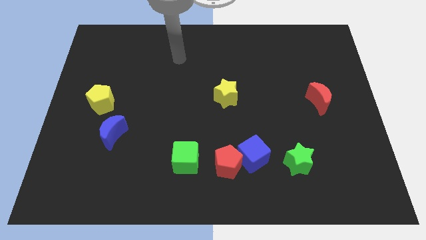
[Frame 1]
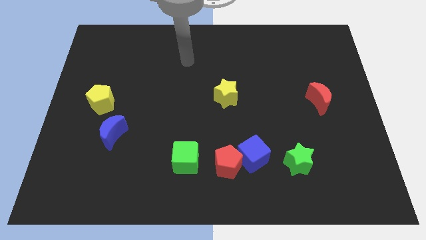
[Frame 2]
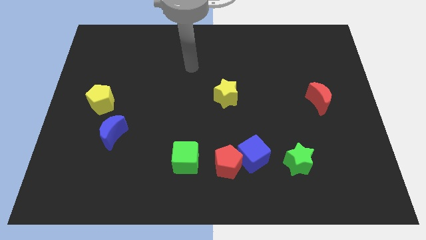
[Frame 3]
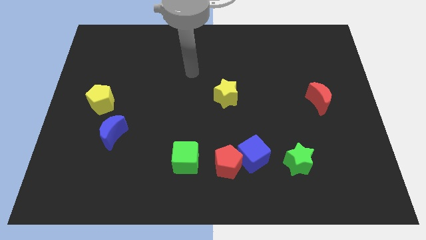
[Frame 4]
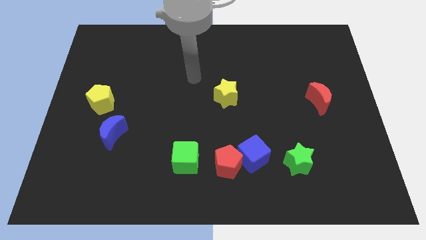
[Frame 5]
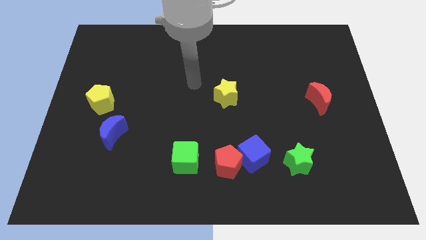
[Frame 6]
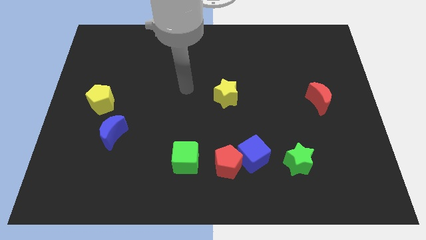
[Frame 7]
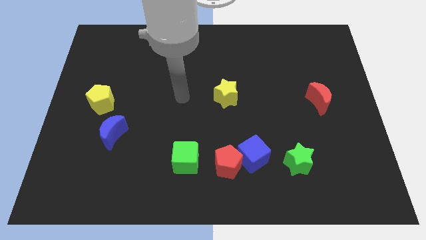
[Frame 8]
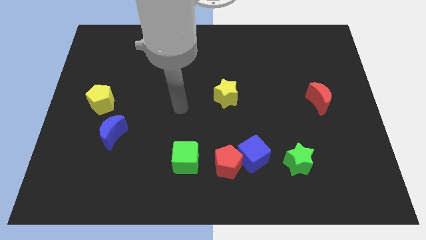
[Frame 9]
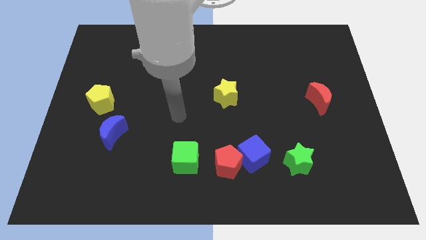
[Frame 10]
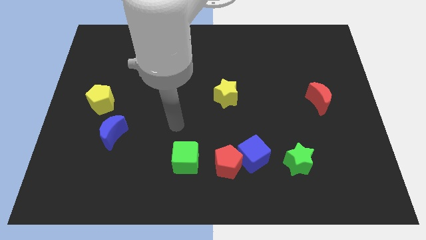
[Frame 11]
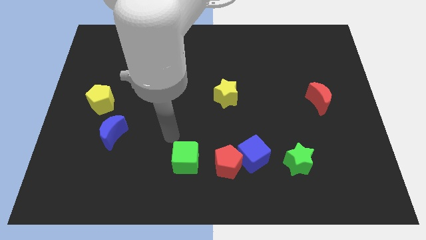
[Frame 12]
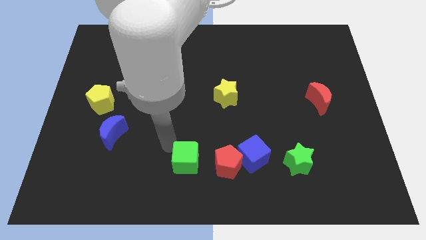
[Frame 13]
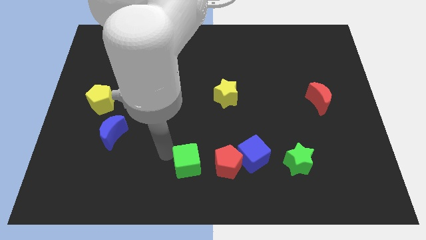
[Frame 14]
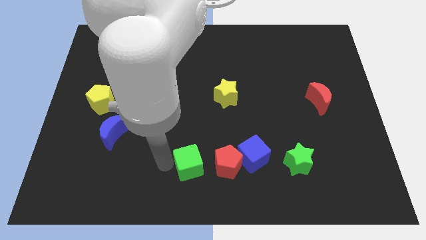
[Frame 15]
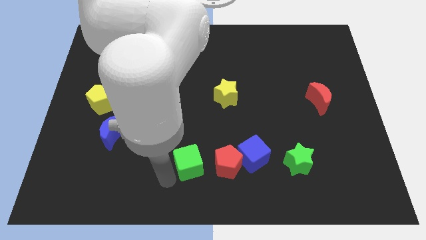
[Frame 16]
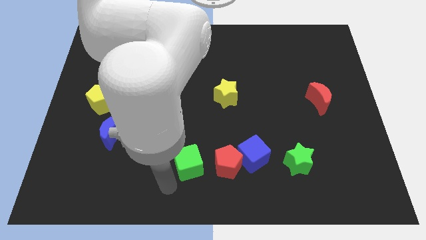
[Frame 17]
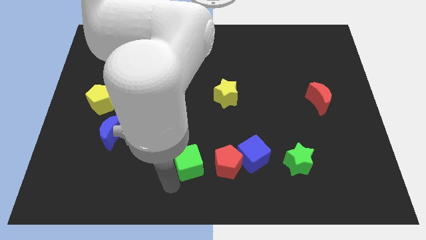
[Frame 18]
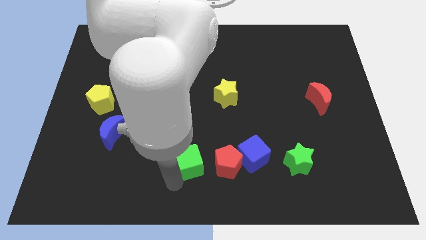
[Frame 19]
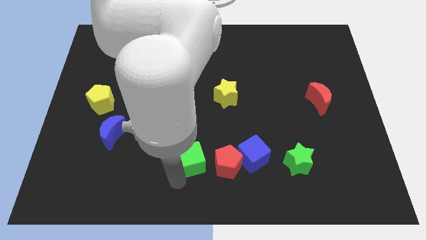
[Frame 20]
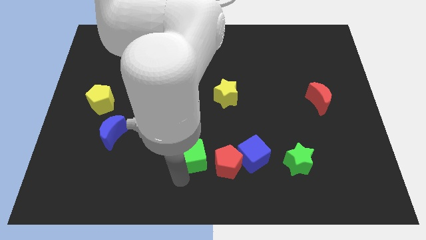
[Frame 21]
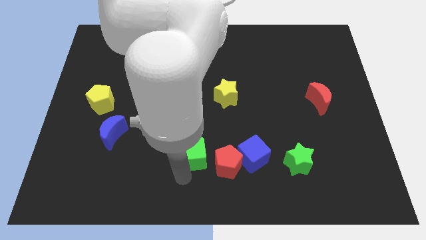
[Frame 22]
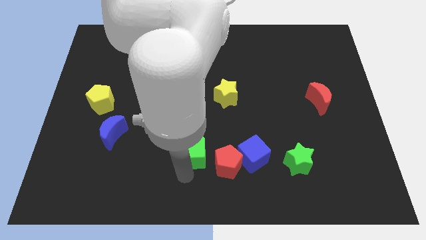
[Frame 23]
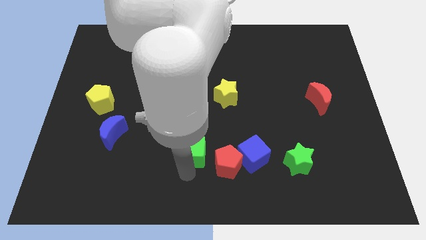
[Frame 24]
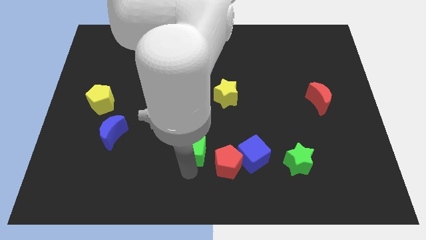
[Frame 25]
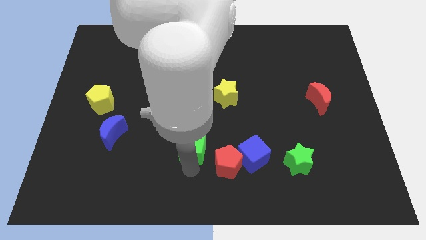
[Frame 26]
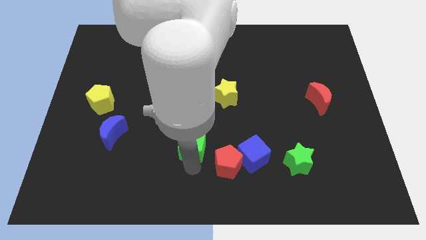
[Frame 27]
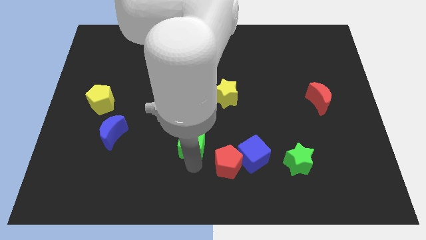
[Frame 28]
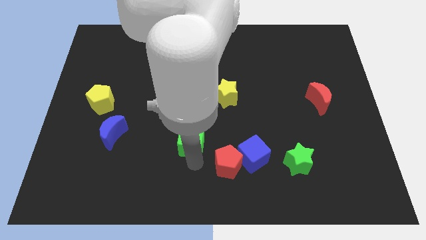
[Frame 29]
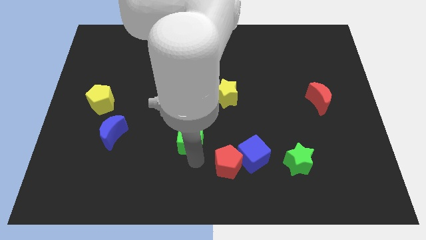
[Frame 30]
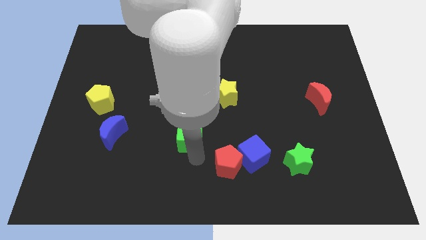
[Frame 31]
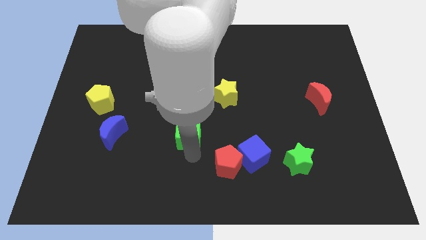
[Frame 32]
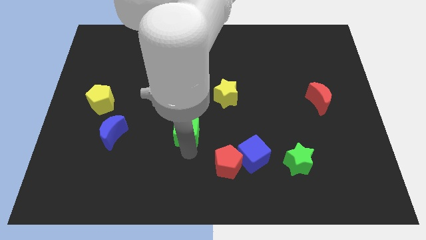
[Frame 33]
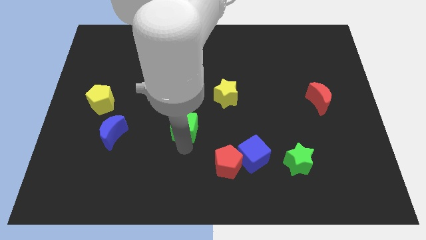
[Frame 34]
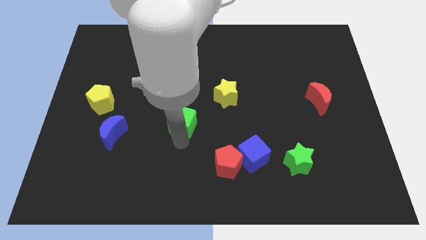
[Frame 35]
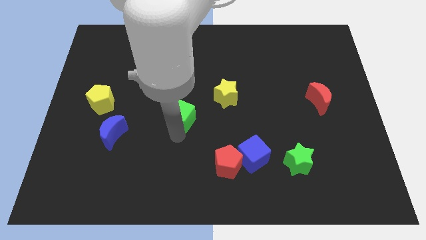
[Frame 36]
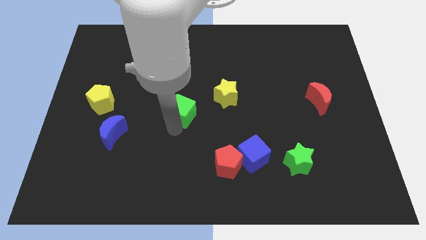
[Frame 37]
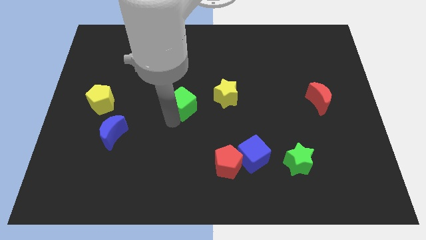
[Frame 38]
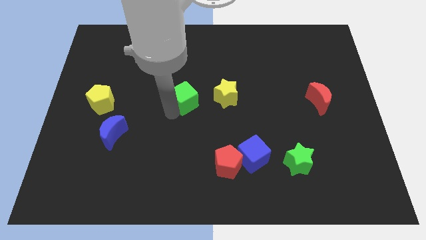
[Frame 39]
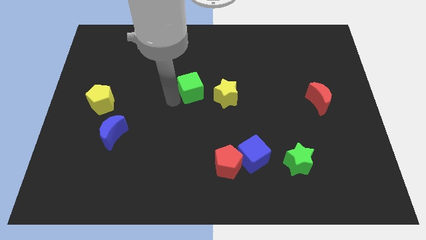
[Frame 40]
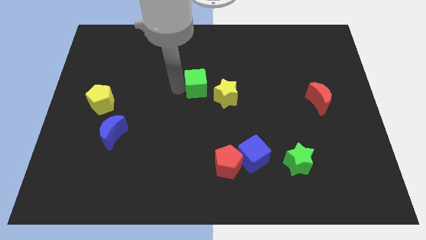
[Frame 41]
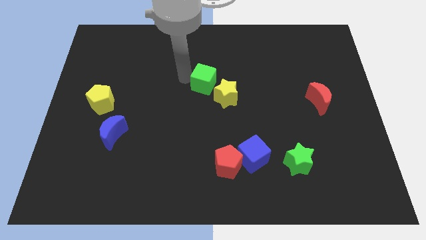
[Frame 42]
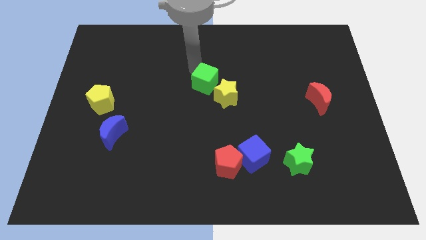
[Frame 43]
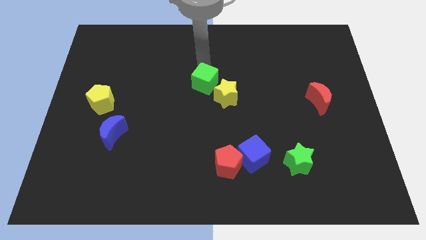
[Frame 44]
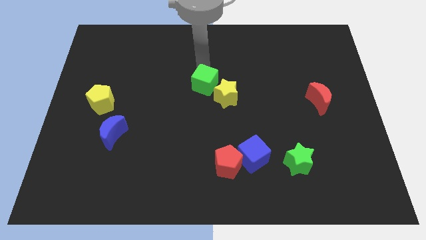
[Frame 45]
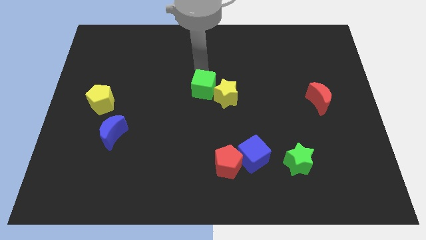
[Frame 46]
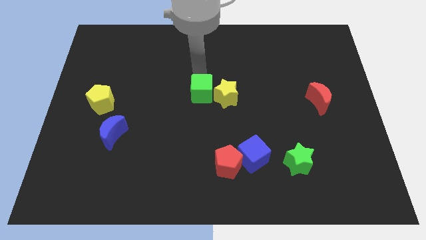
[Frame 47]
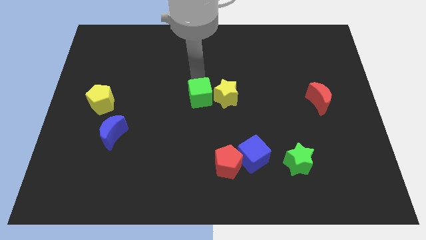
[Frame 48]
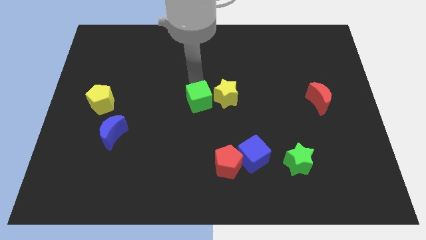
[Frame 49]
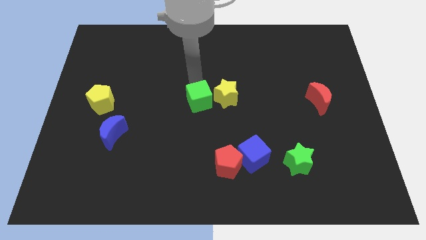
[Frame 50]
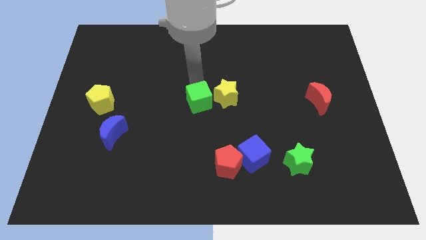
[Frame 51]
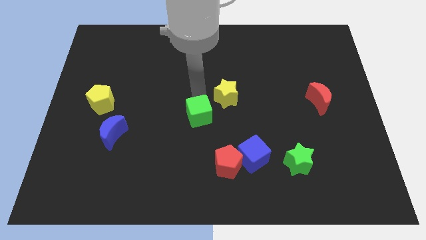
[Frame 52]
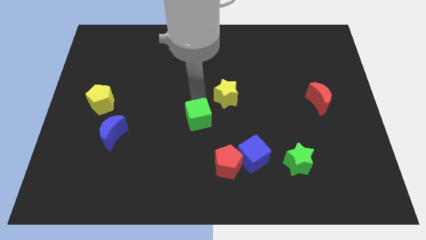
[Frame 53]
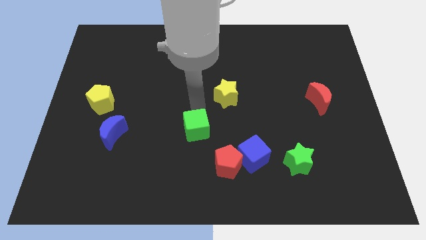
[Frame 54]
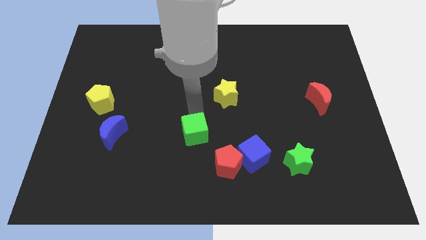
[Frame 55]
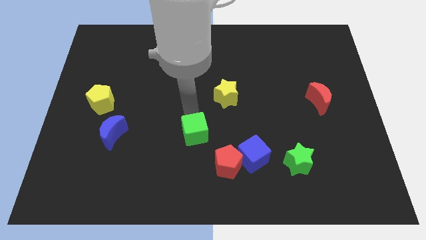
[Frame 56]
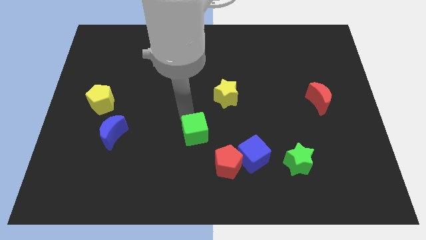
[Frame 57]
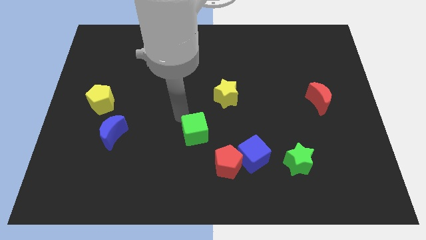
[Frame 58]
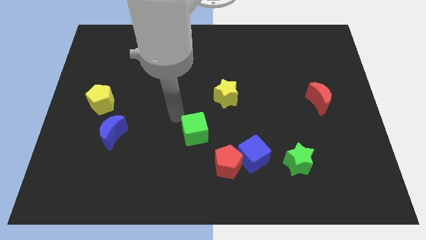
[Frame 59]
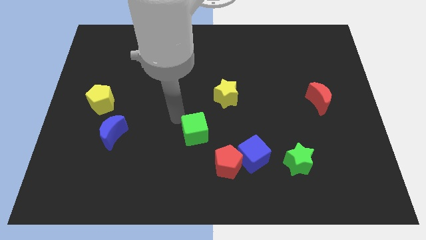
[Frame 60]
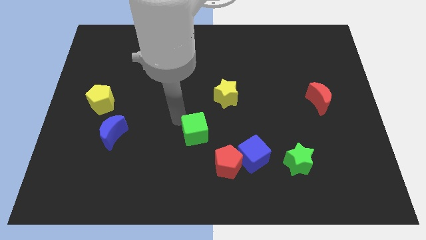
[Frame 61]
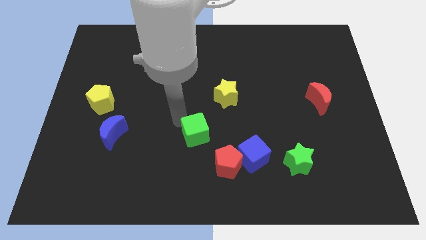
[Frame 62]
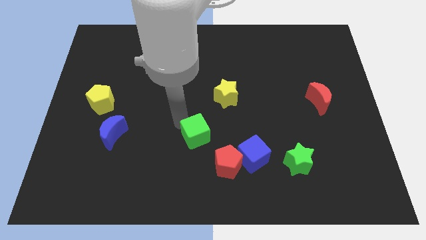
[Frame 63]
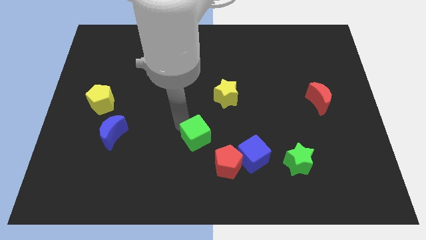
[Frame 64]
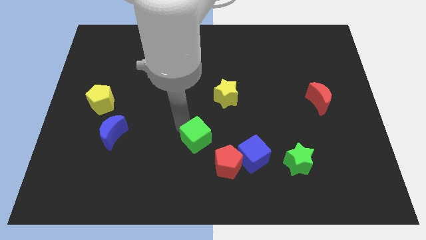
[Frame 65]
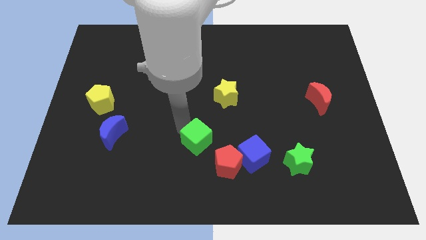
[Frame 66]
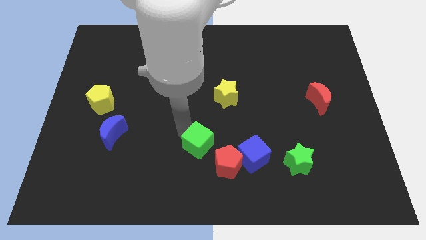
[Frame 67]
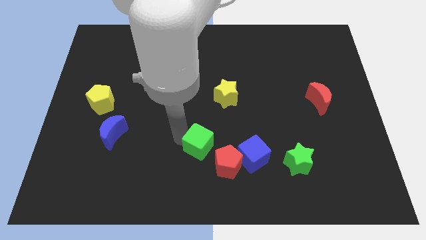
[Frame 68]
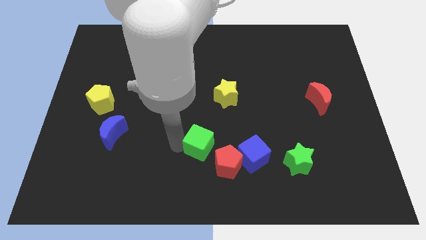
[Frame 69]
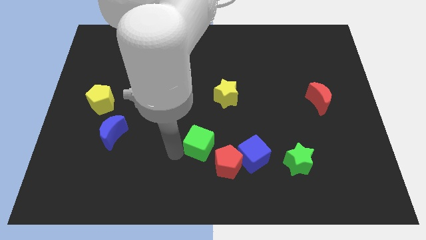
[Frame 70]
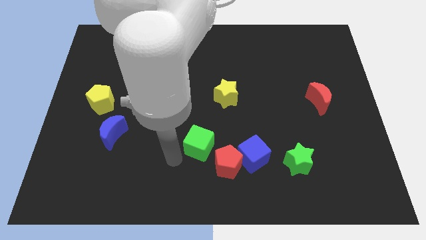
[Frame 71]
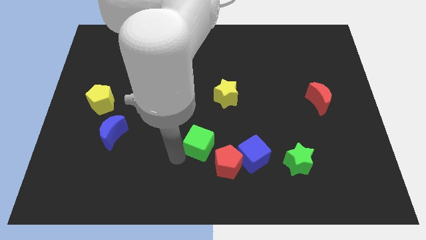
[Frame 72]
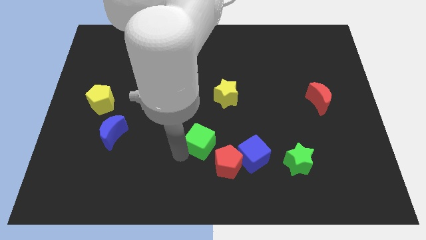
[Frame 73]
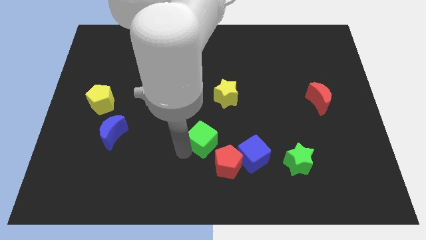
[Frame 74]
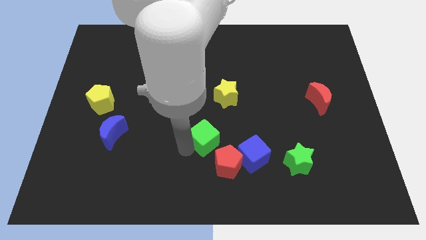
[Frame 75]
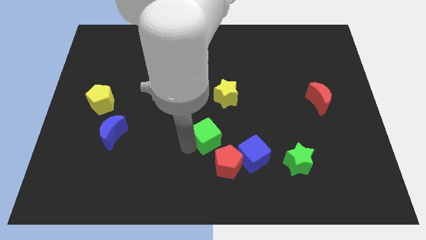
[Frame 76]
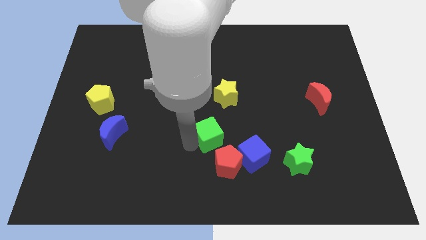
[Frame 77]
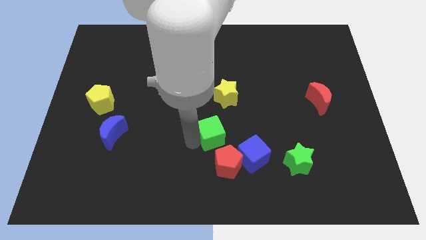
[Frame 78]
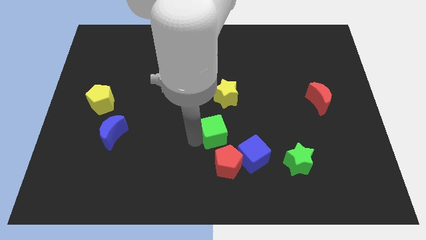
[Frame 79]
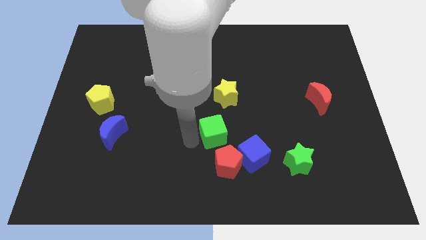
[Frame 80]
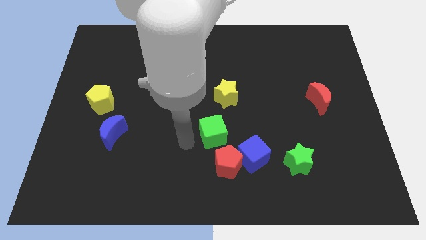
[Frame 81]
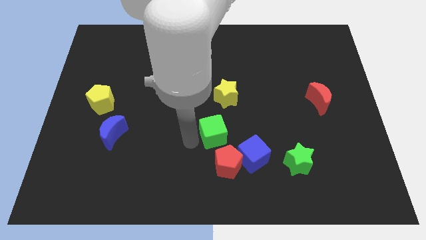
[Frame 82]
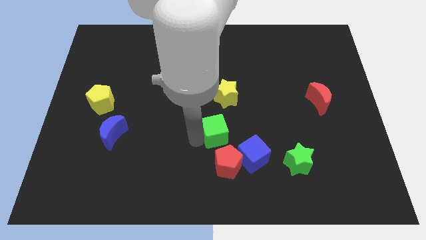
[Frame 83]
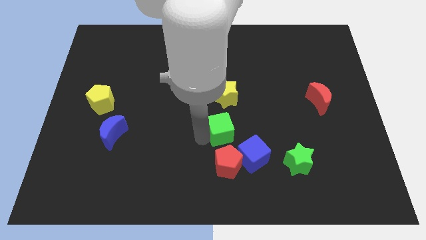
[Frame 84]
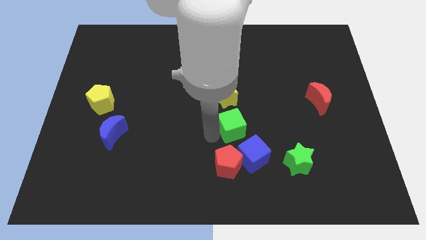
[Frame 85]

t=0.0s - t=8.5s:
move the green cube to the top of the blue cube
